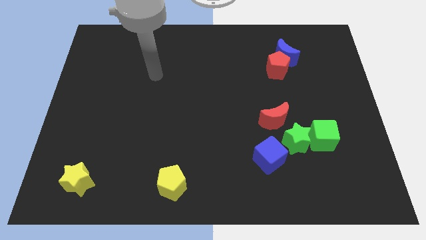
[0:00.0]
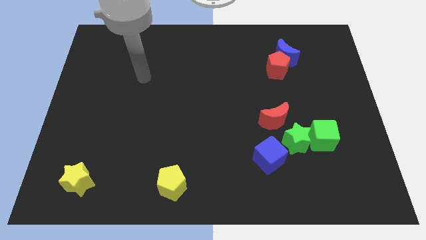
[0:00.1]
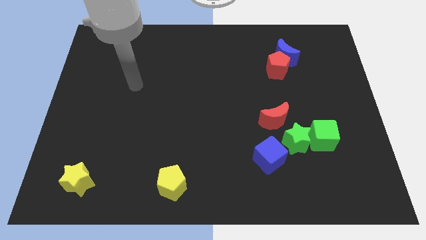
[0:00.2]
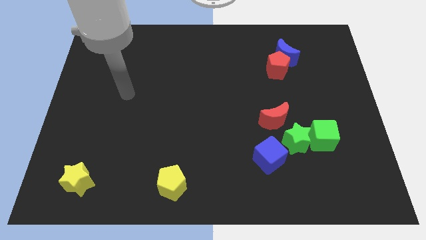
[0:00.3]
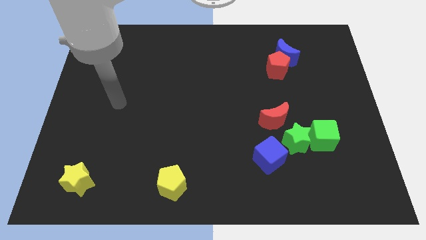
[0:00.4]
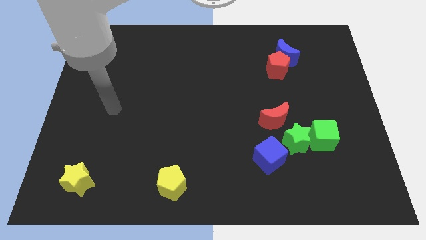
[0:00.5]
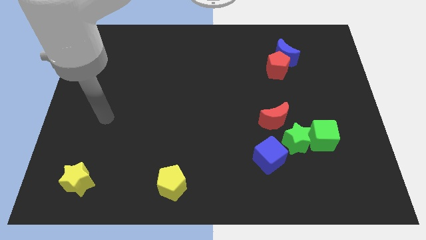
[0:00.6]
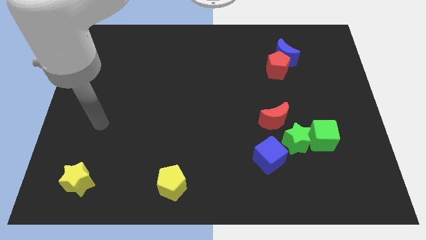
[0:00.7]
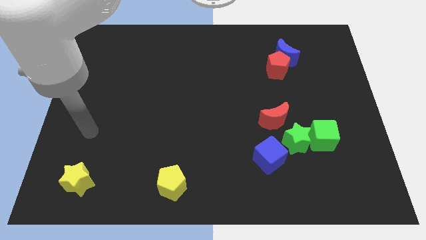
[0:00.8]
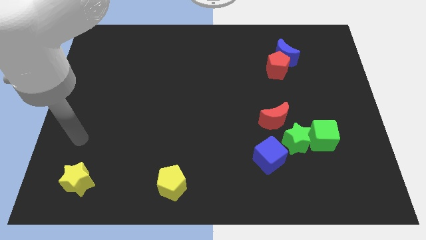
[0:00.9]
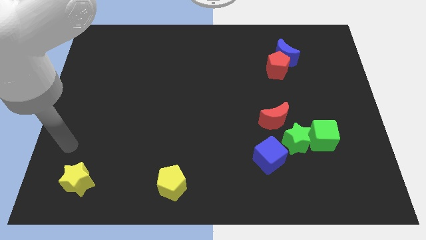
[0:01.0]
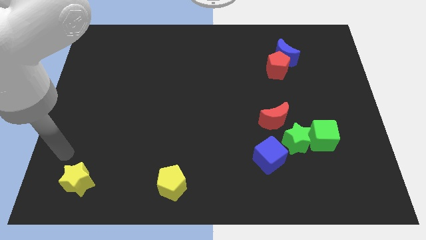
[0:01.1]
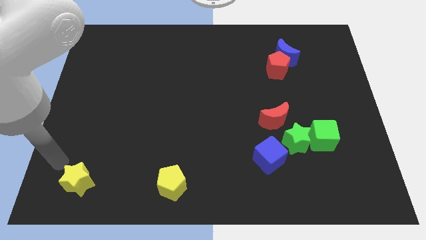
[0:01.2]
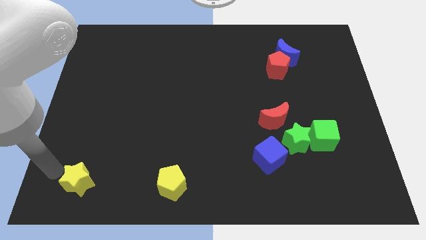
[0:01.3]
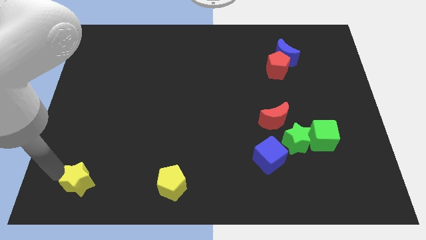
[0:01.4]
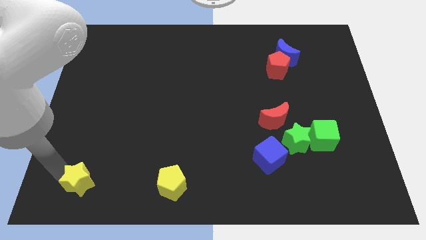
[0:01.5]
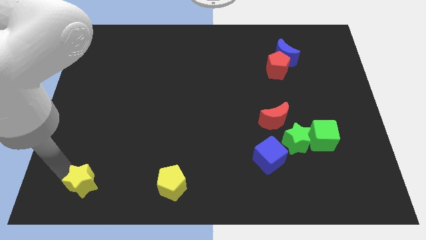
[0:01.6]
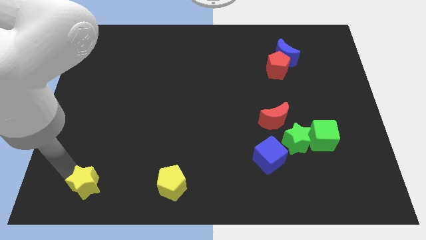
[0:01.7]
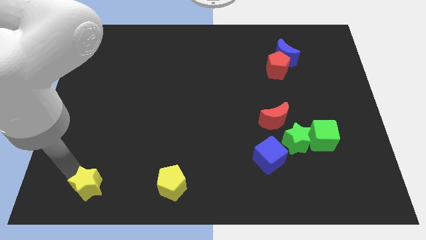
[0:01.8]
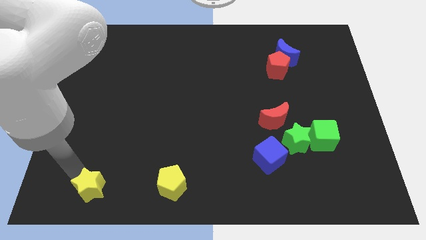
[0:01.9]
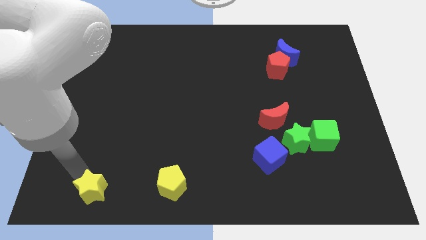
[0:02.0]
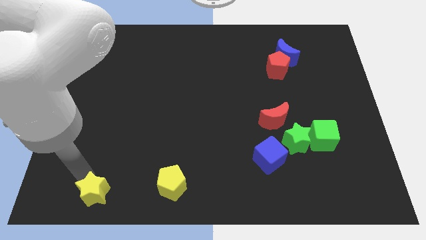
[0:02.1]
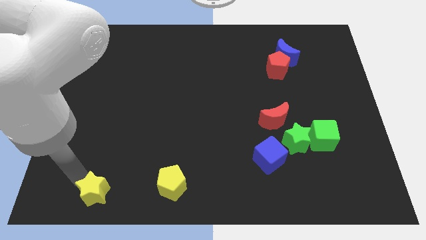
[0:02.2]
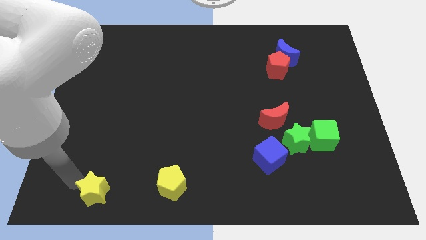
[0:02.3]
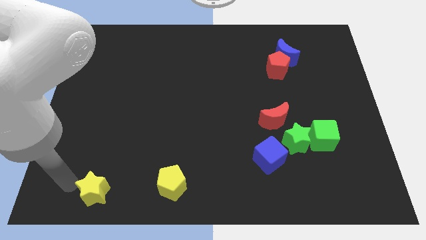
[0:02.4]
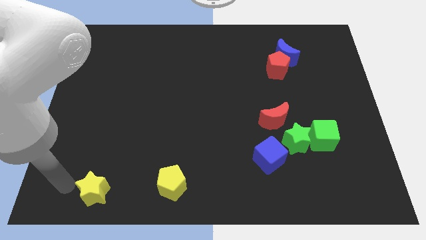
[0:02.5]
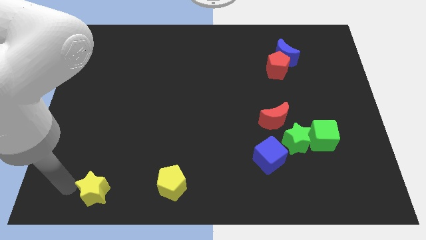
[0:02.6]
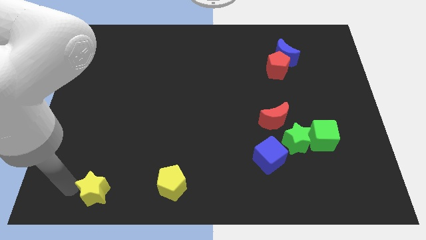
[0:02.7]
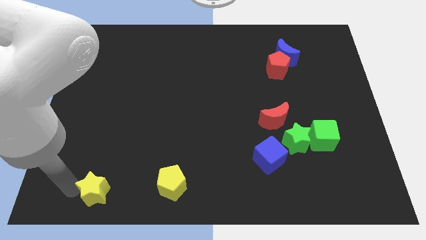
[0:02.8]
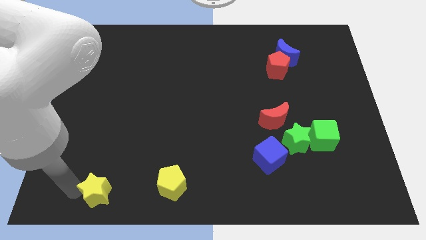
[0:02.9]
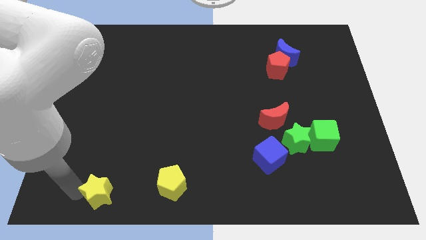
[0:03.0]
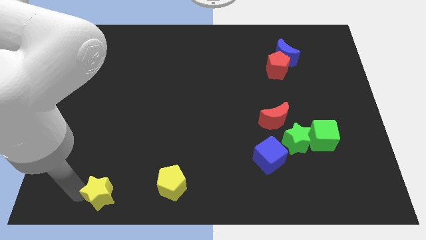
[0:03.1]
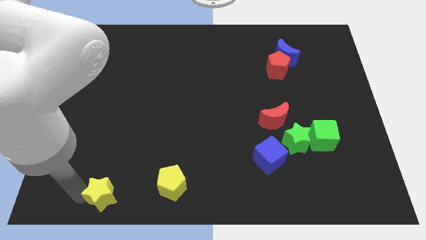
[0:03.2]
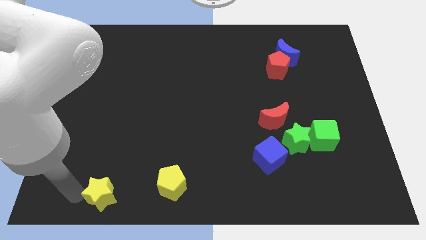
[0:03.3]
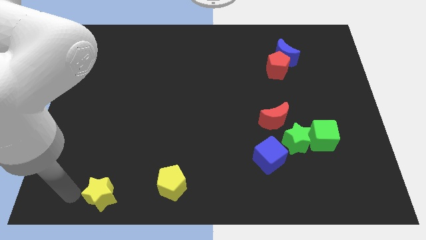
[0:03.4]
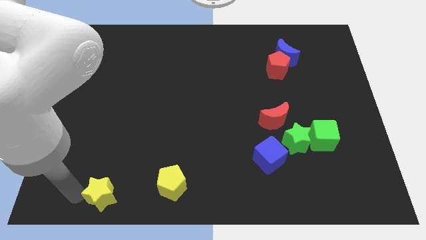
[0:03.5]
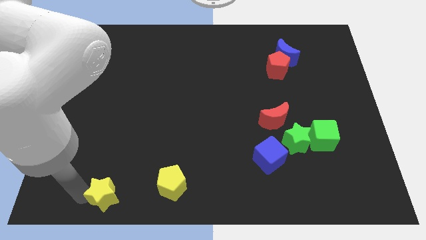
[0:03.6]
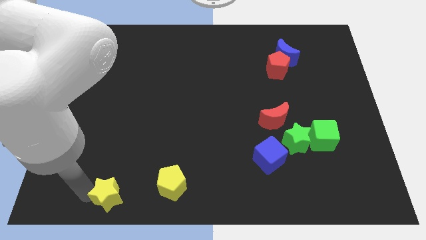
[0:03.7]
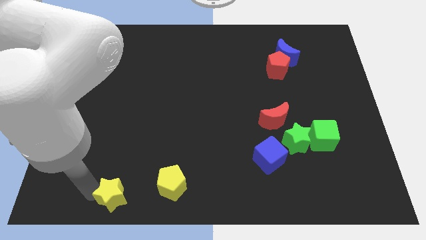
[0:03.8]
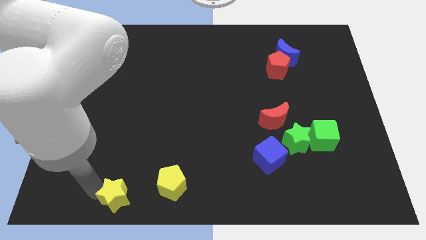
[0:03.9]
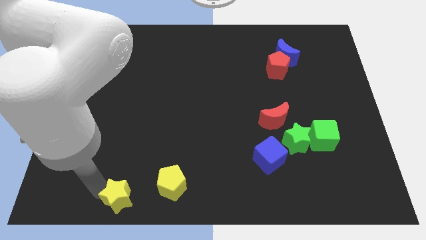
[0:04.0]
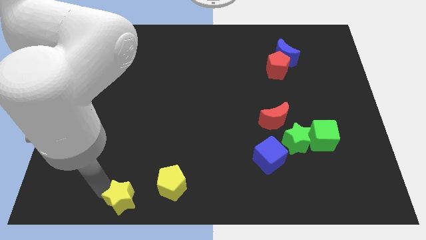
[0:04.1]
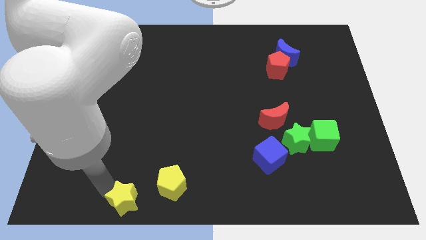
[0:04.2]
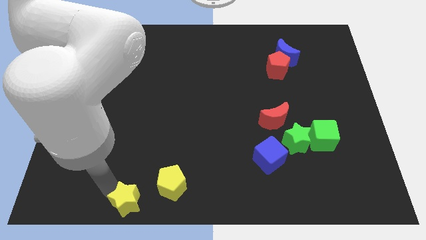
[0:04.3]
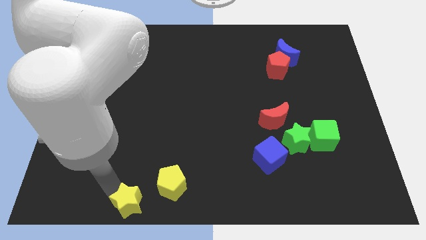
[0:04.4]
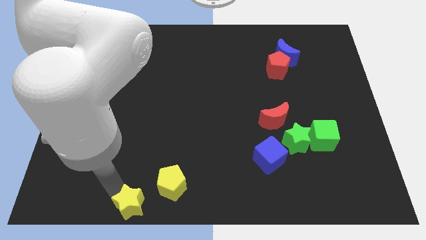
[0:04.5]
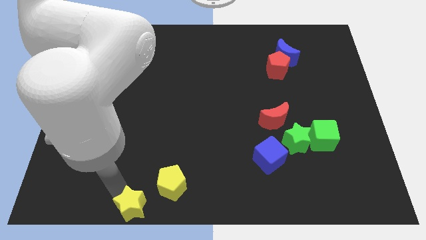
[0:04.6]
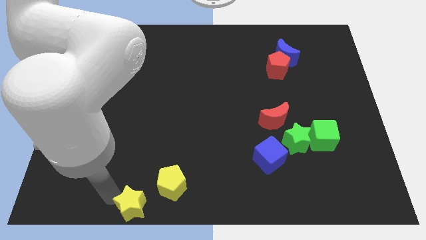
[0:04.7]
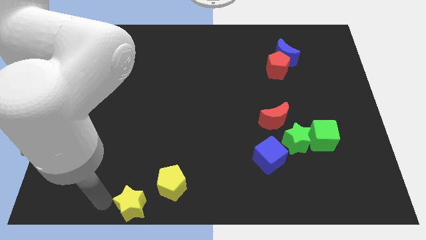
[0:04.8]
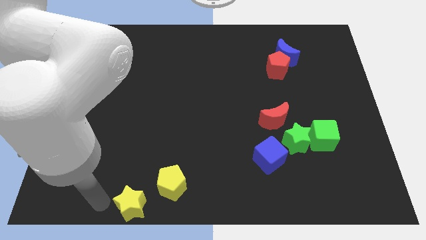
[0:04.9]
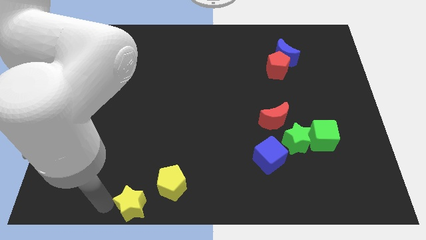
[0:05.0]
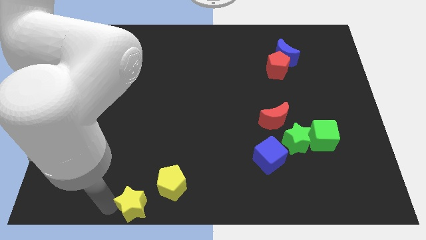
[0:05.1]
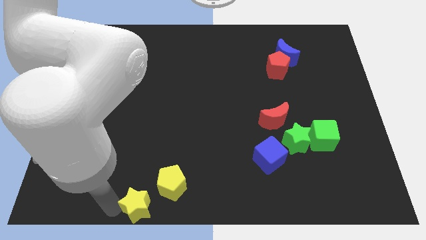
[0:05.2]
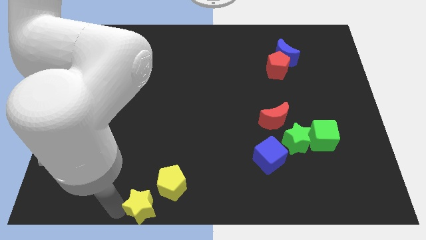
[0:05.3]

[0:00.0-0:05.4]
put the yellow star to the bottom side

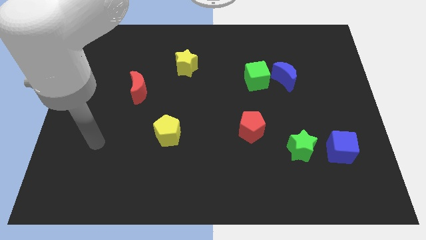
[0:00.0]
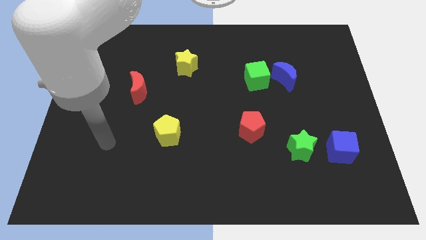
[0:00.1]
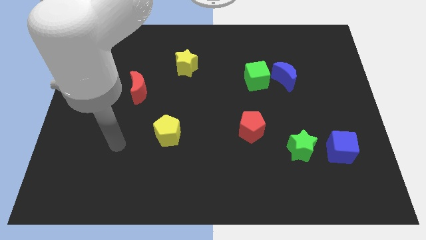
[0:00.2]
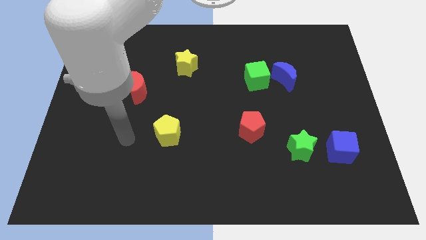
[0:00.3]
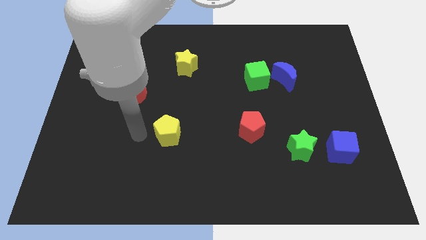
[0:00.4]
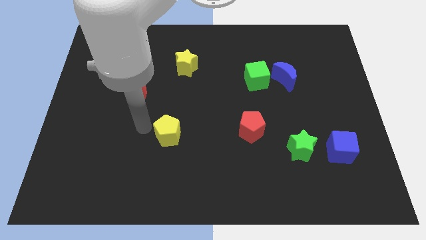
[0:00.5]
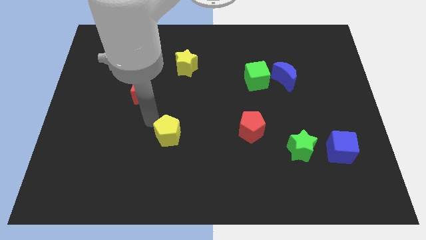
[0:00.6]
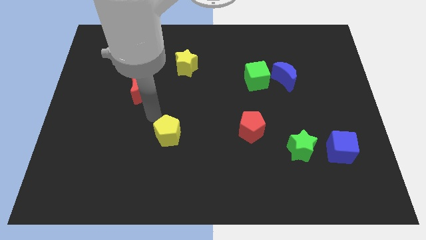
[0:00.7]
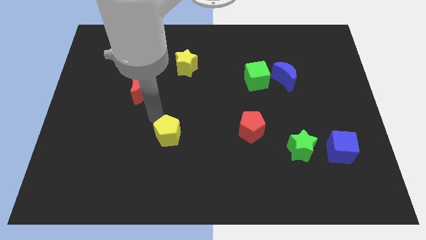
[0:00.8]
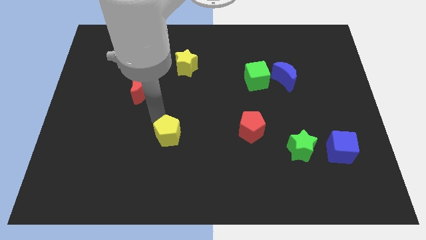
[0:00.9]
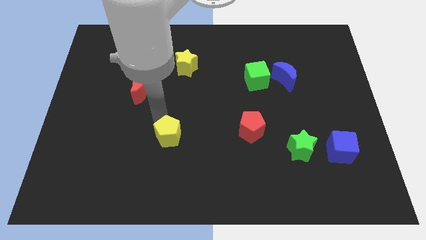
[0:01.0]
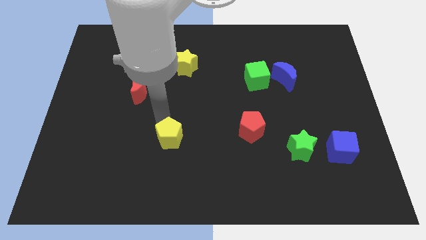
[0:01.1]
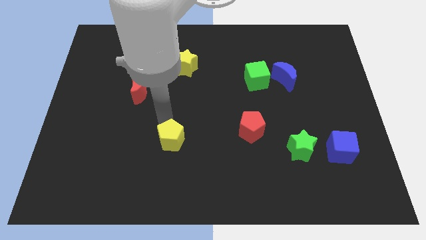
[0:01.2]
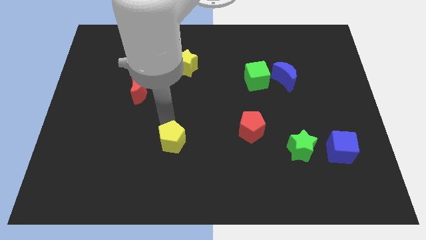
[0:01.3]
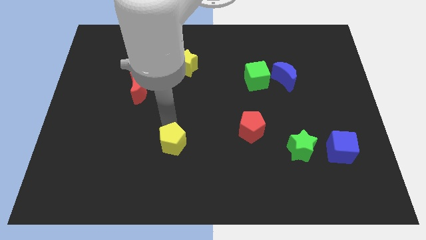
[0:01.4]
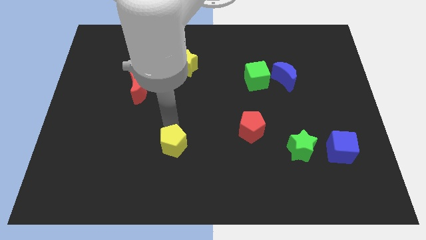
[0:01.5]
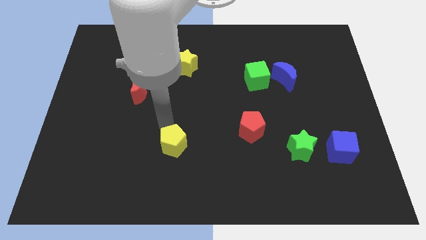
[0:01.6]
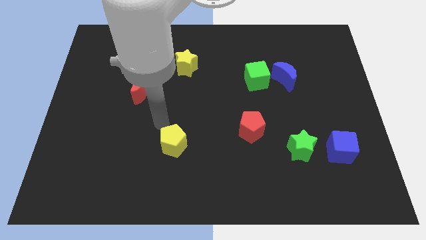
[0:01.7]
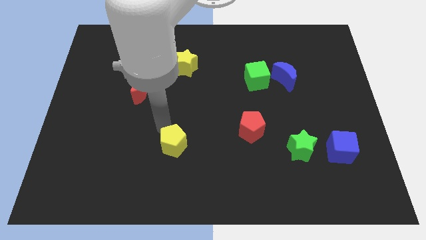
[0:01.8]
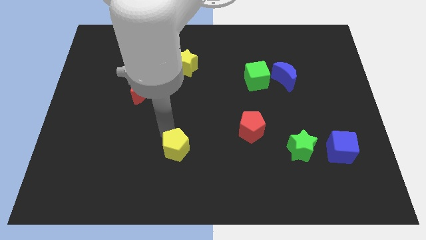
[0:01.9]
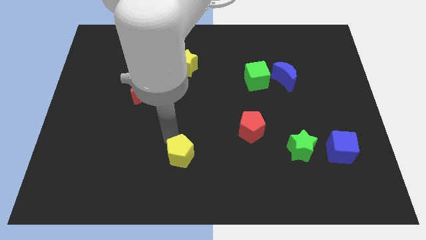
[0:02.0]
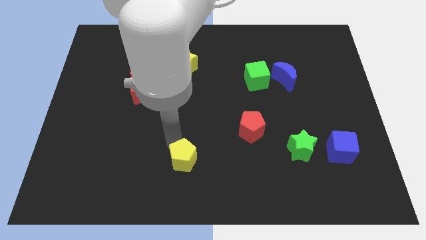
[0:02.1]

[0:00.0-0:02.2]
move the yellow pentagon to the bottom side
